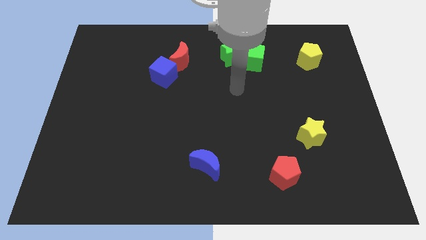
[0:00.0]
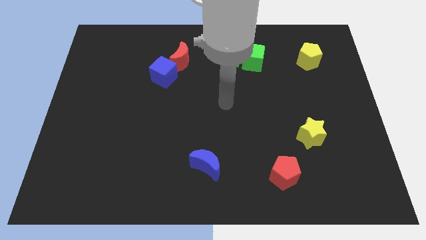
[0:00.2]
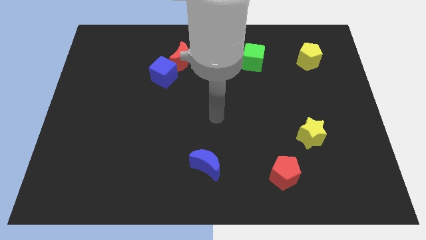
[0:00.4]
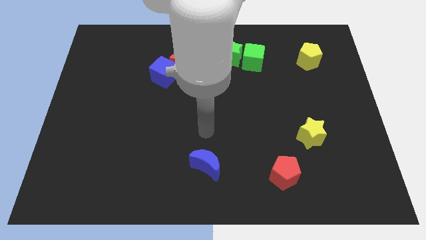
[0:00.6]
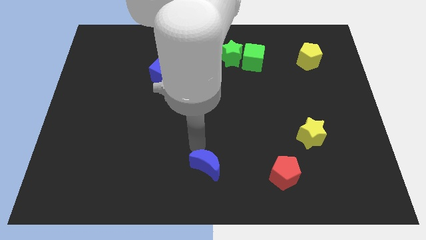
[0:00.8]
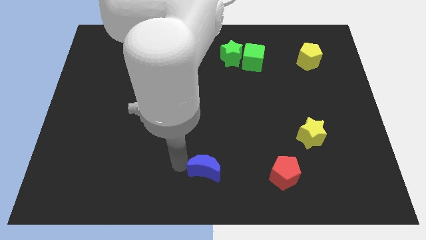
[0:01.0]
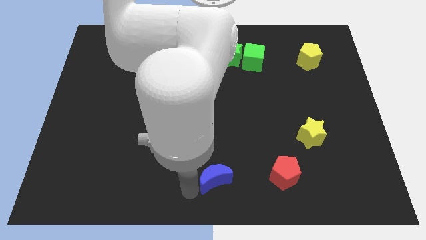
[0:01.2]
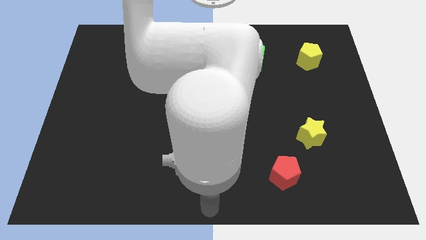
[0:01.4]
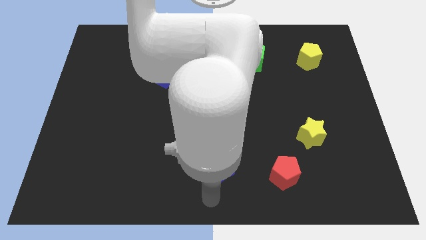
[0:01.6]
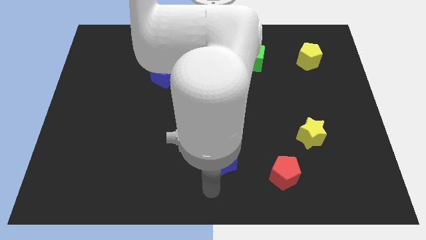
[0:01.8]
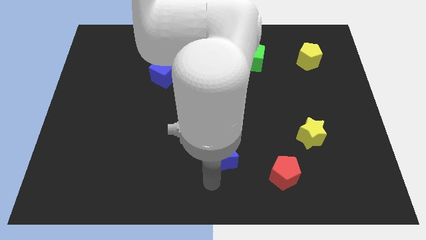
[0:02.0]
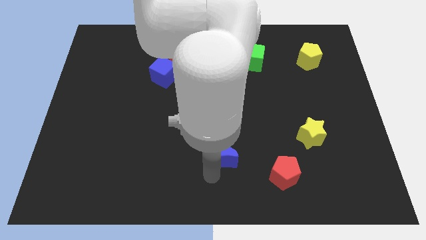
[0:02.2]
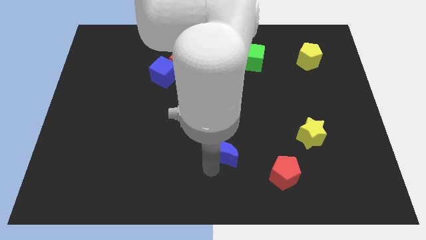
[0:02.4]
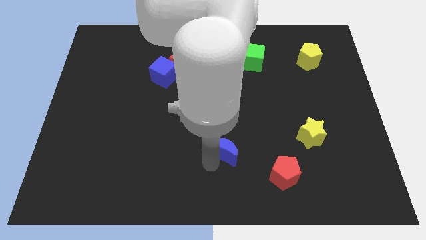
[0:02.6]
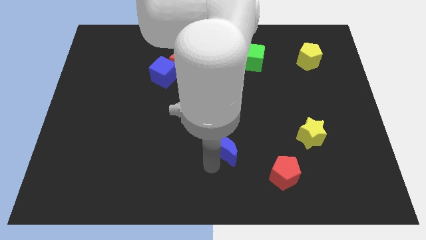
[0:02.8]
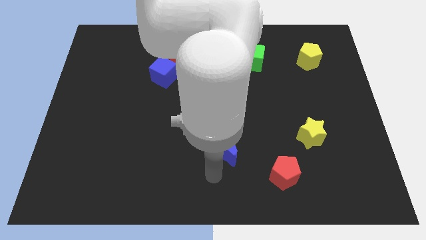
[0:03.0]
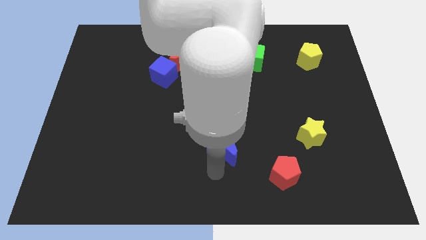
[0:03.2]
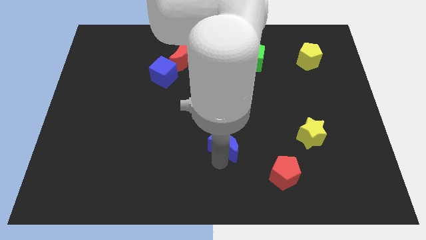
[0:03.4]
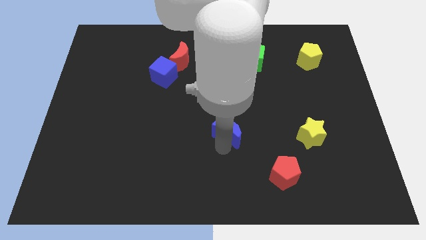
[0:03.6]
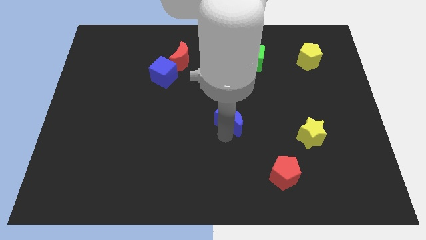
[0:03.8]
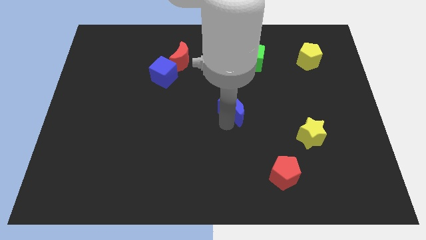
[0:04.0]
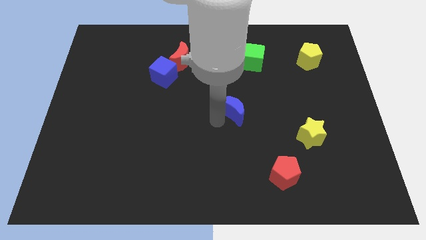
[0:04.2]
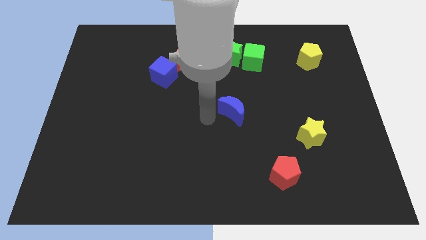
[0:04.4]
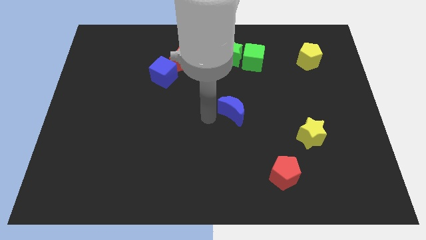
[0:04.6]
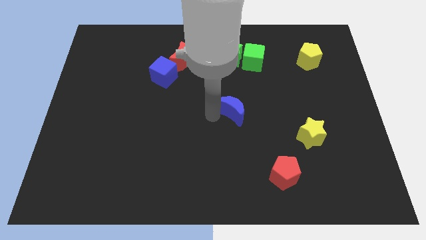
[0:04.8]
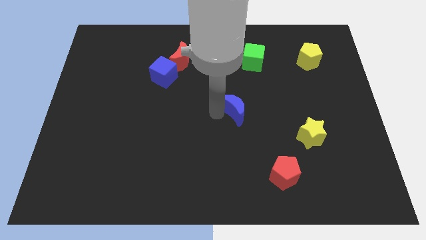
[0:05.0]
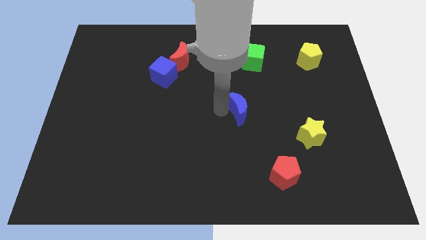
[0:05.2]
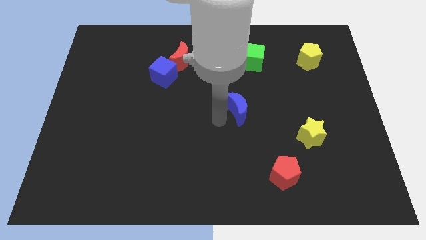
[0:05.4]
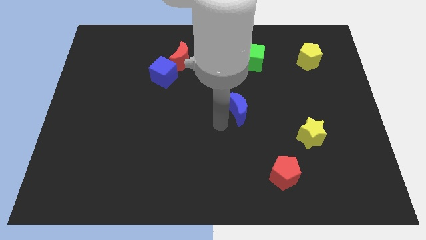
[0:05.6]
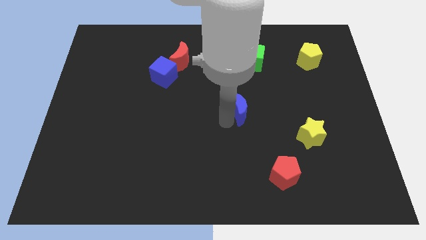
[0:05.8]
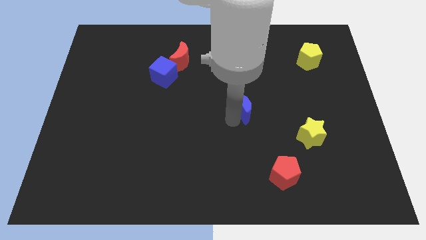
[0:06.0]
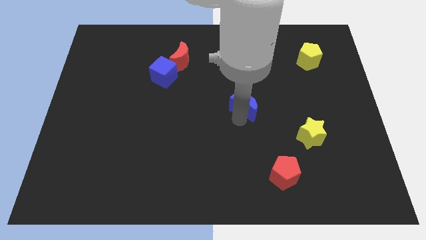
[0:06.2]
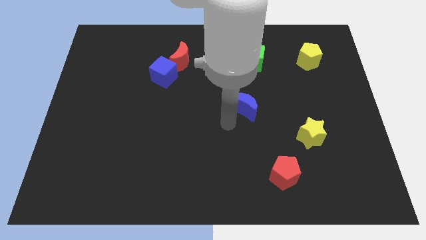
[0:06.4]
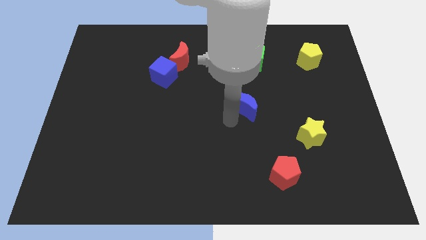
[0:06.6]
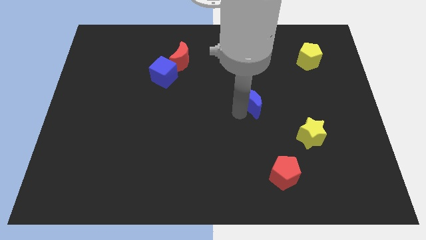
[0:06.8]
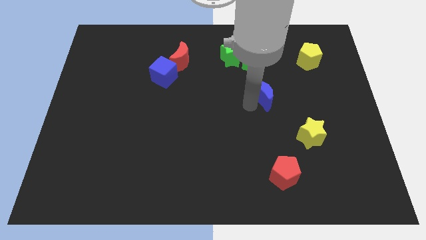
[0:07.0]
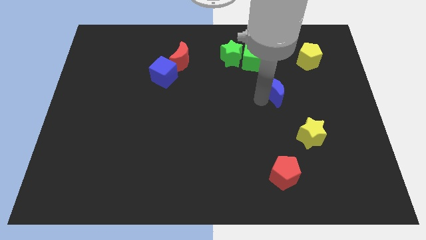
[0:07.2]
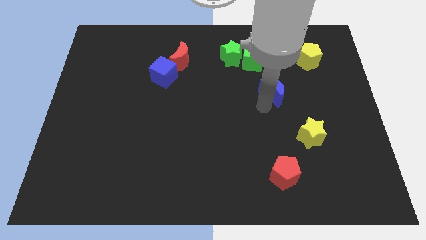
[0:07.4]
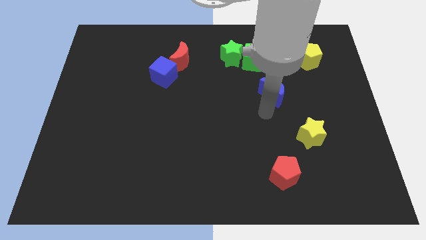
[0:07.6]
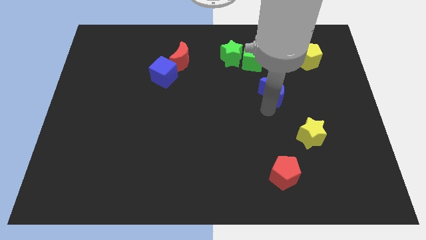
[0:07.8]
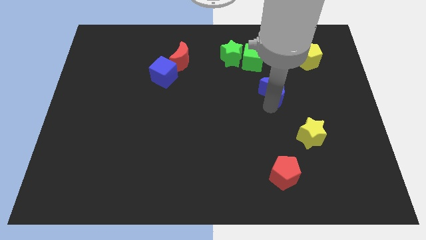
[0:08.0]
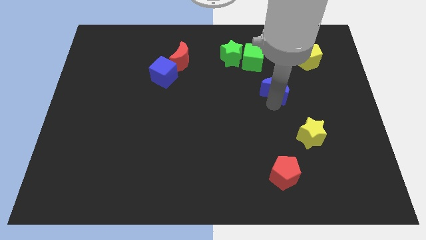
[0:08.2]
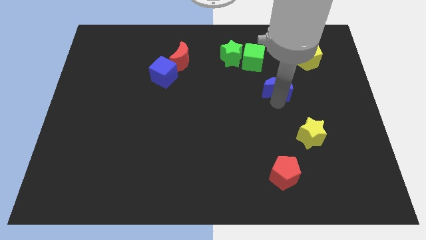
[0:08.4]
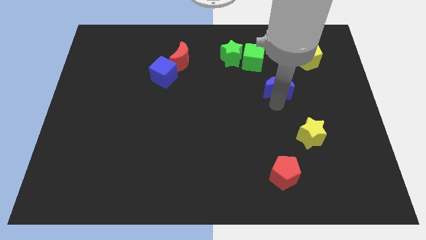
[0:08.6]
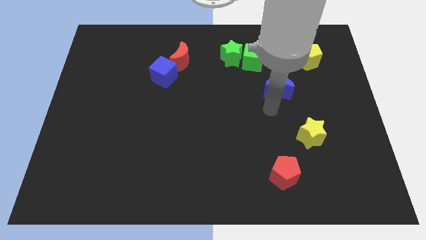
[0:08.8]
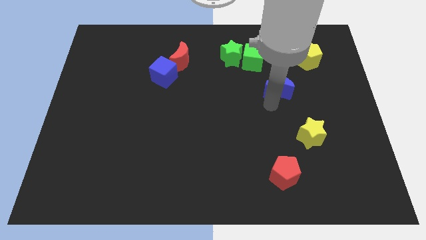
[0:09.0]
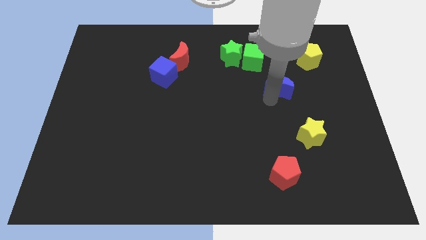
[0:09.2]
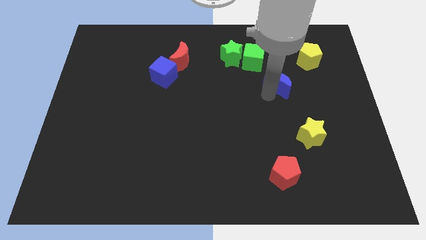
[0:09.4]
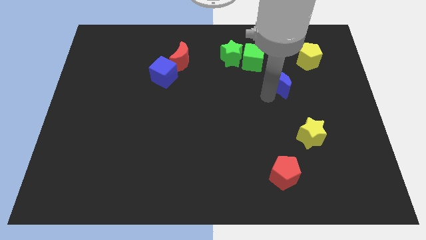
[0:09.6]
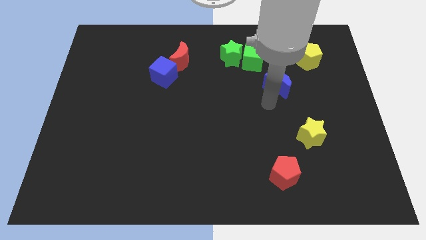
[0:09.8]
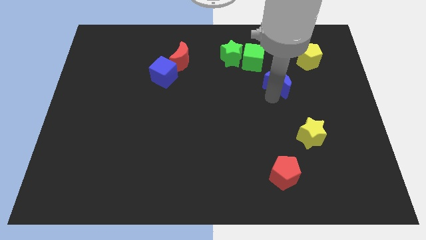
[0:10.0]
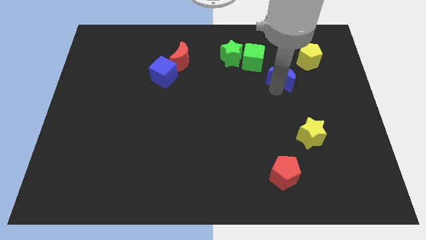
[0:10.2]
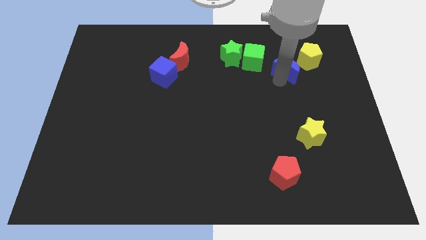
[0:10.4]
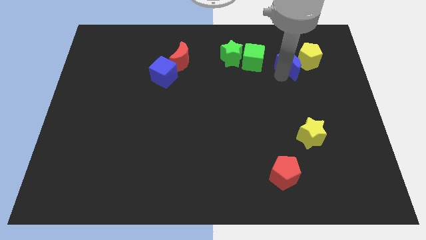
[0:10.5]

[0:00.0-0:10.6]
put the blue moon to the yellow pentagon

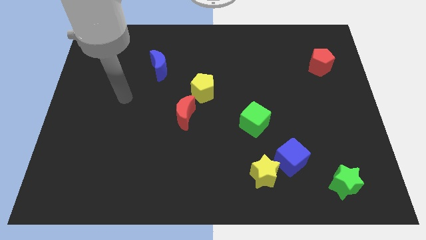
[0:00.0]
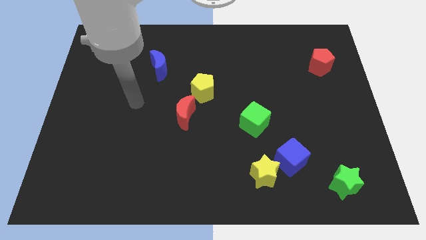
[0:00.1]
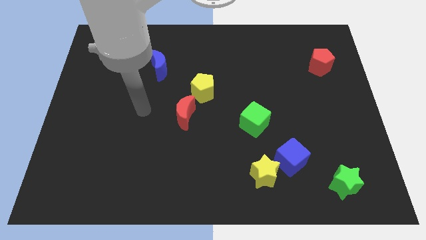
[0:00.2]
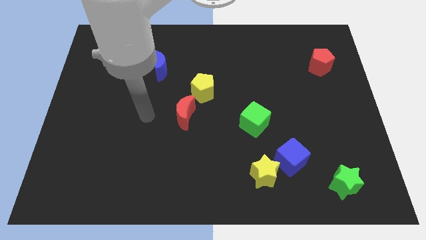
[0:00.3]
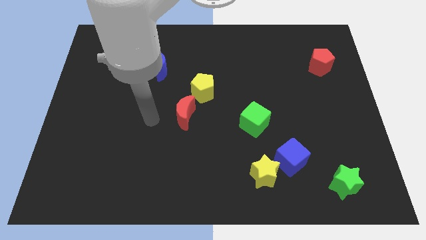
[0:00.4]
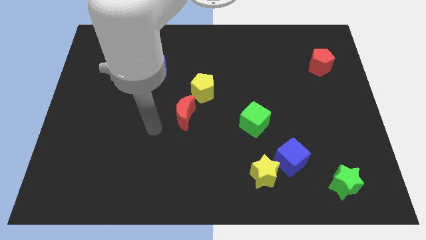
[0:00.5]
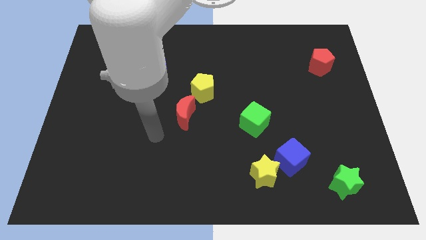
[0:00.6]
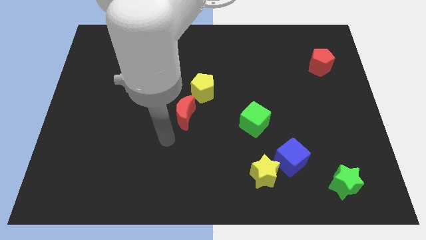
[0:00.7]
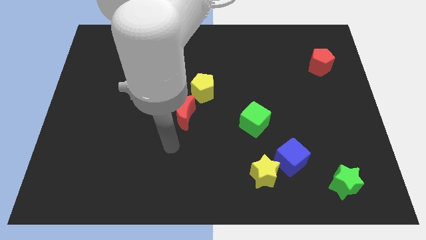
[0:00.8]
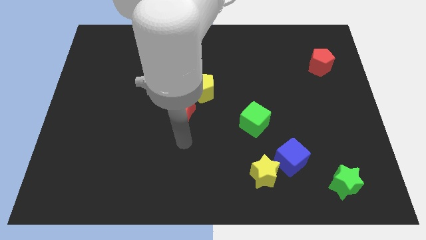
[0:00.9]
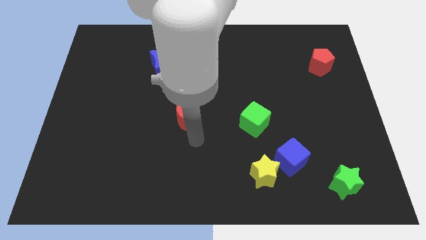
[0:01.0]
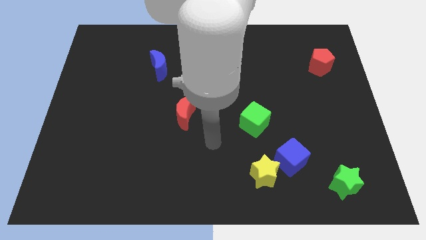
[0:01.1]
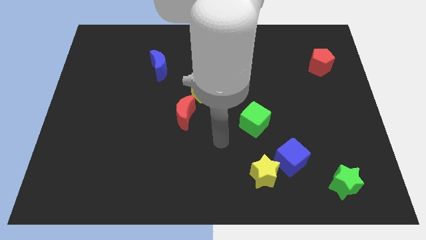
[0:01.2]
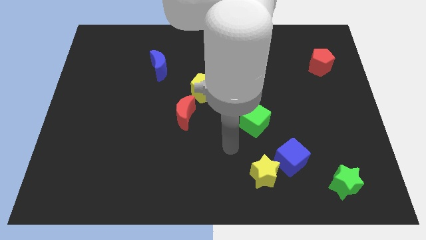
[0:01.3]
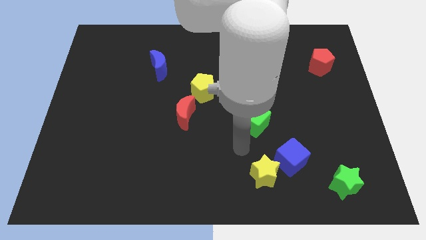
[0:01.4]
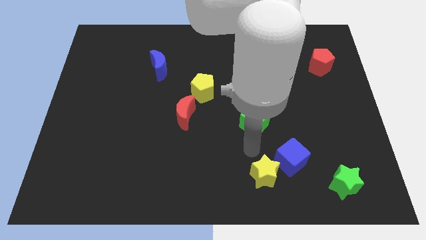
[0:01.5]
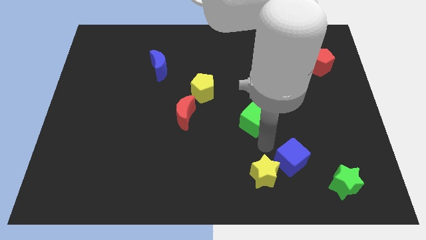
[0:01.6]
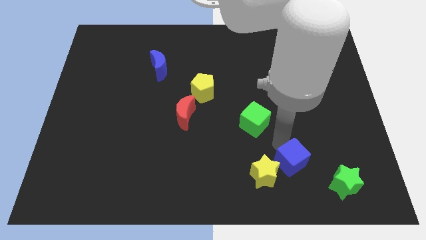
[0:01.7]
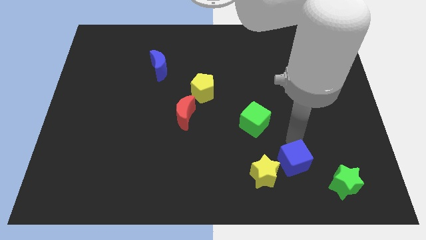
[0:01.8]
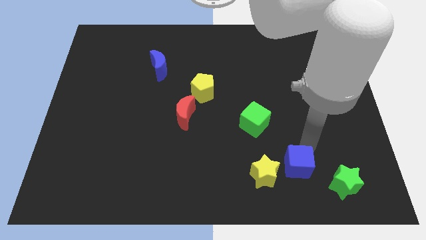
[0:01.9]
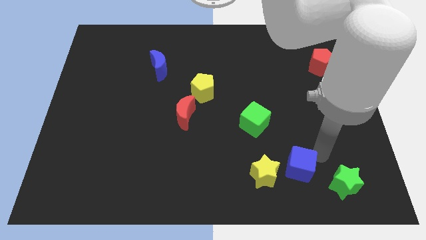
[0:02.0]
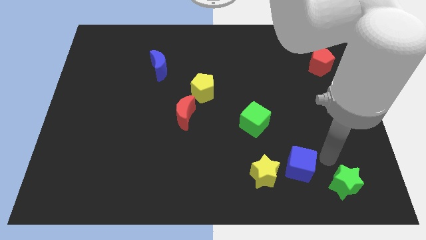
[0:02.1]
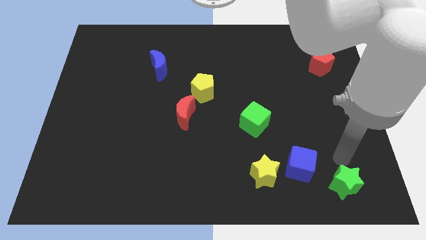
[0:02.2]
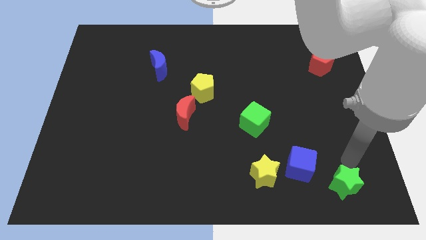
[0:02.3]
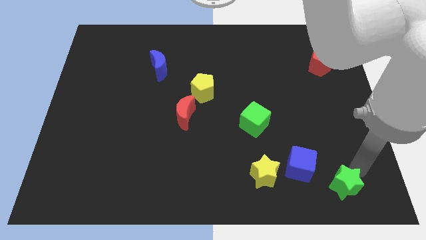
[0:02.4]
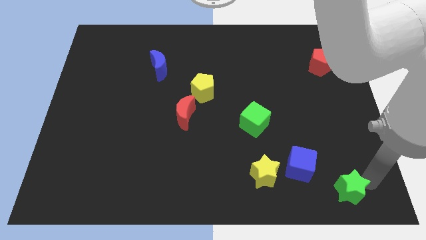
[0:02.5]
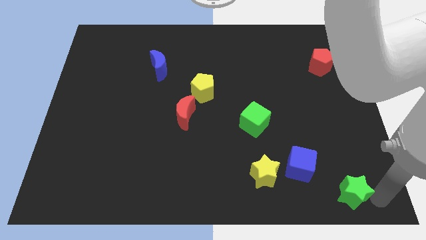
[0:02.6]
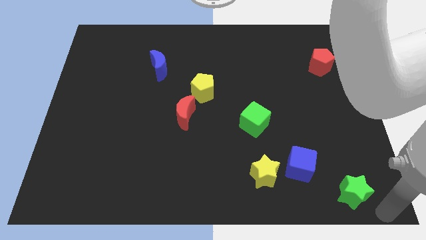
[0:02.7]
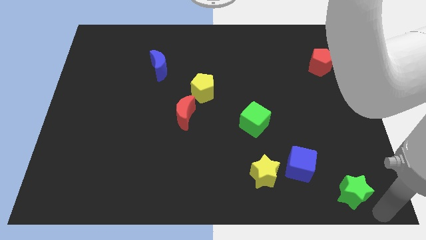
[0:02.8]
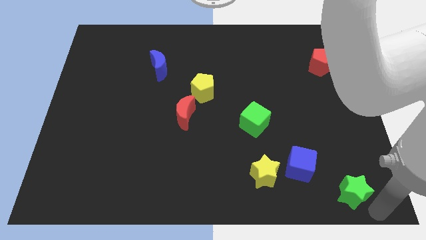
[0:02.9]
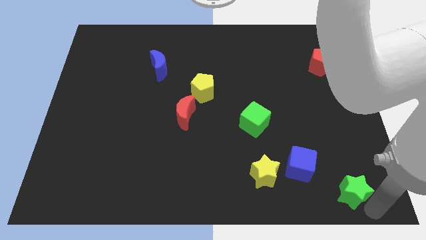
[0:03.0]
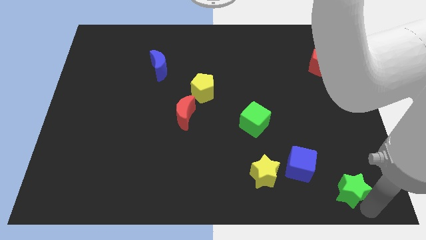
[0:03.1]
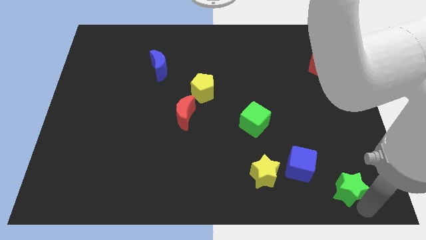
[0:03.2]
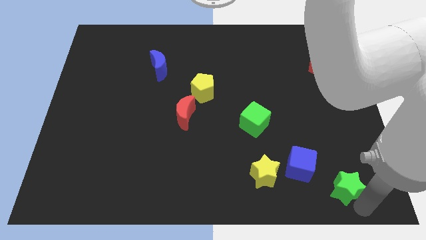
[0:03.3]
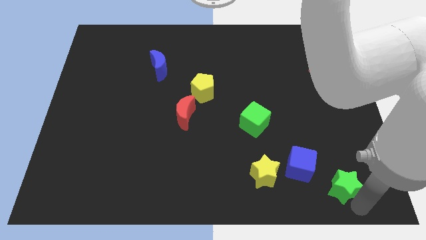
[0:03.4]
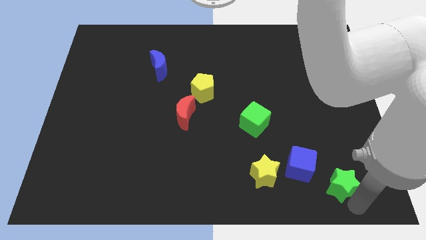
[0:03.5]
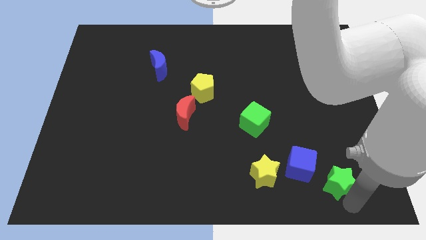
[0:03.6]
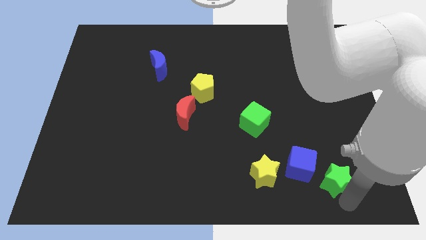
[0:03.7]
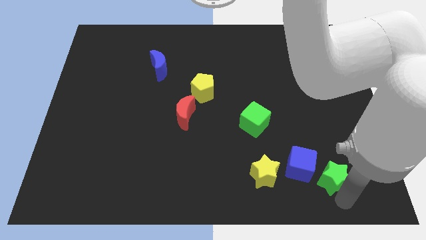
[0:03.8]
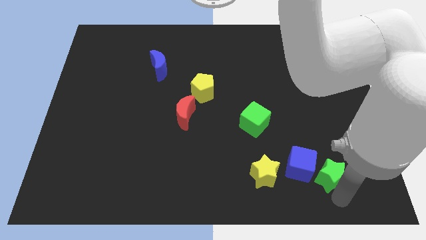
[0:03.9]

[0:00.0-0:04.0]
move the green star close to the blue cube
